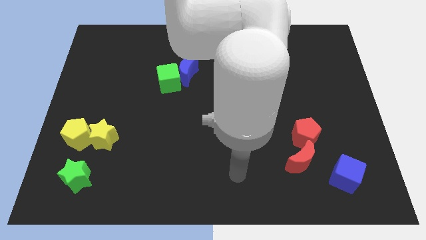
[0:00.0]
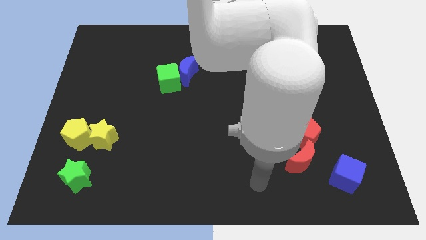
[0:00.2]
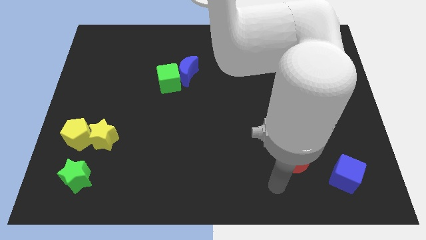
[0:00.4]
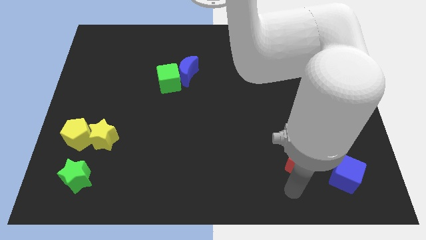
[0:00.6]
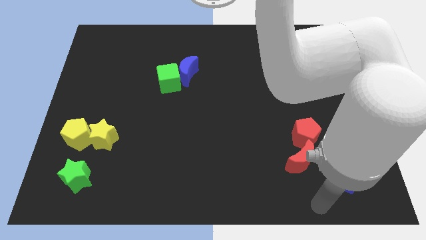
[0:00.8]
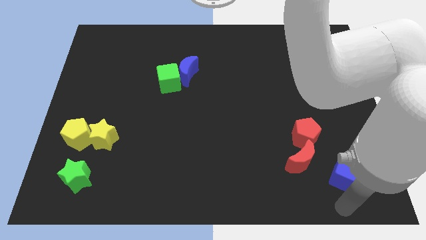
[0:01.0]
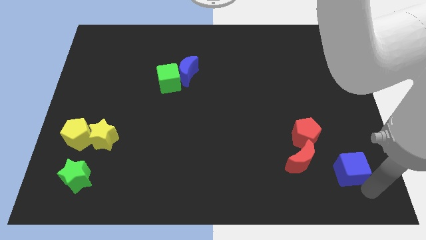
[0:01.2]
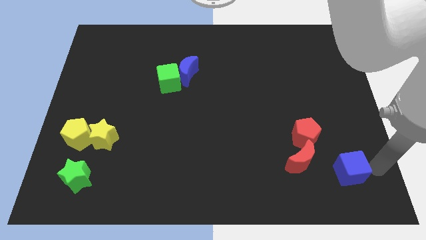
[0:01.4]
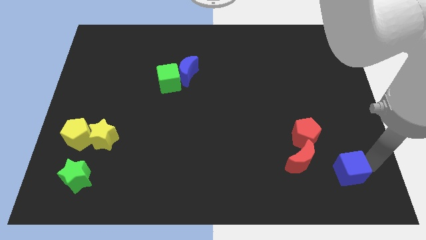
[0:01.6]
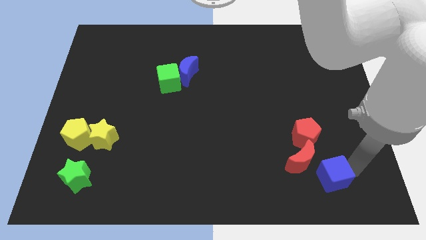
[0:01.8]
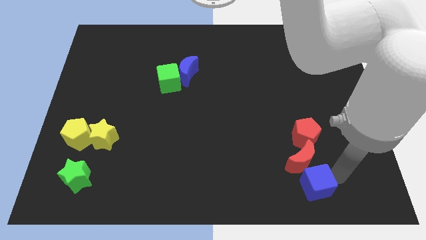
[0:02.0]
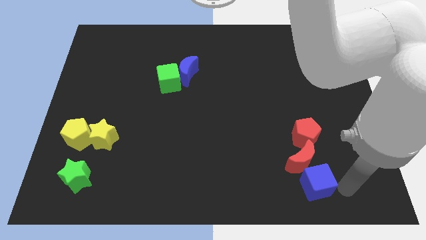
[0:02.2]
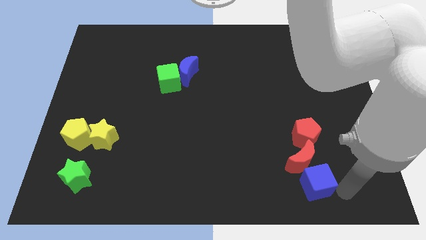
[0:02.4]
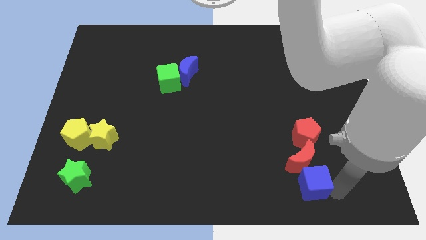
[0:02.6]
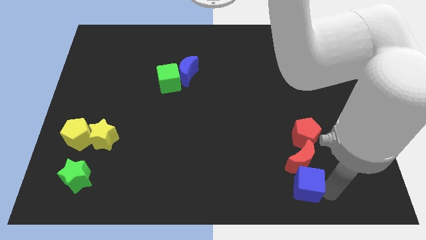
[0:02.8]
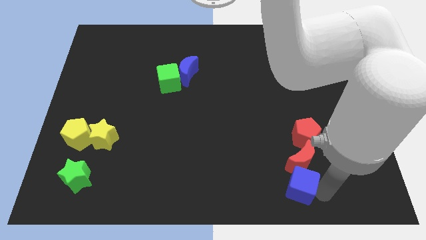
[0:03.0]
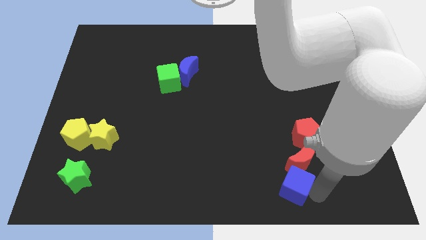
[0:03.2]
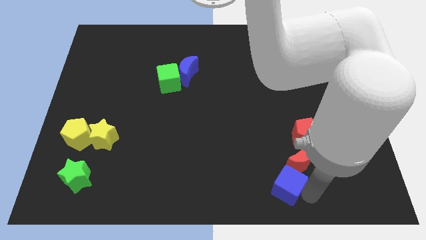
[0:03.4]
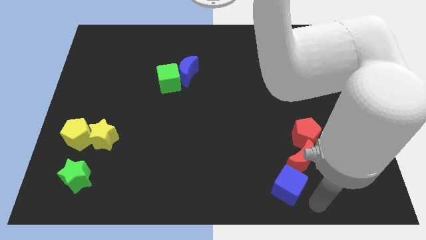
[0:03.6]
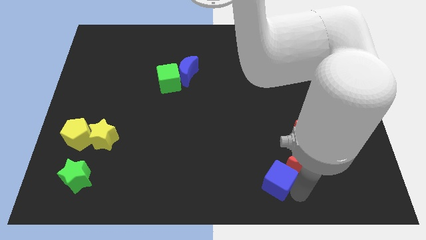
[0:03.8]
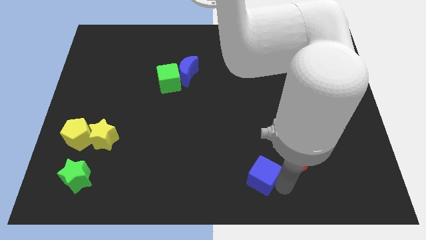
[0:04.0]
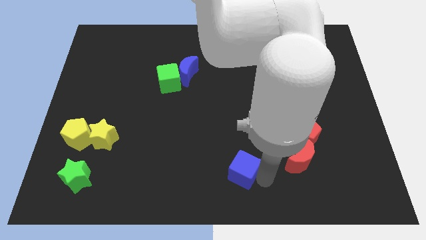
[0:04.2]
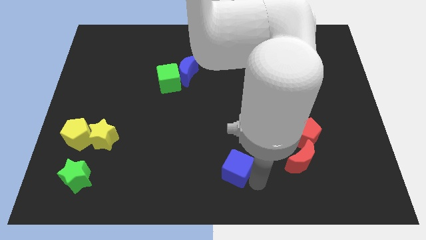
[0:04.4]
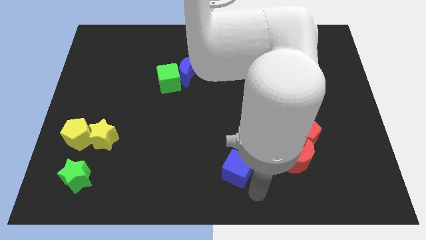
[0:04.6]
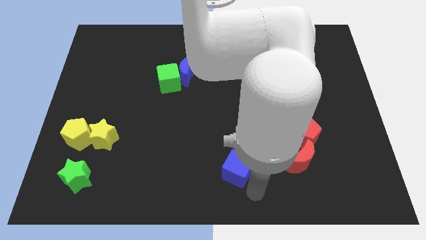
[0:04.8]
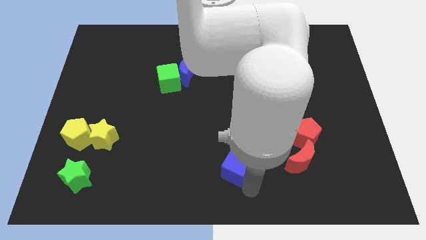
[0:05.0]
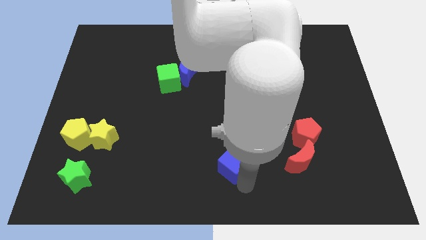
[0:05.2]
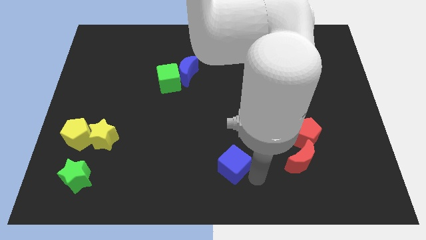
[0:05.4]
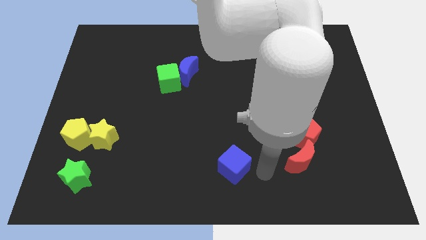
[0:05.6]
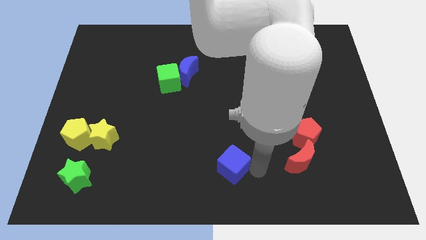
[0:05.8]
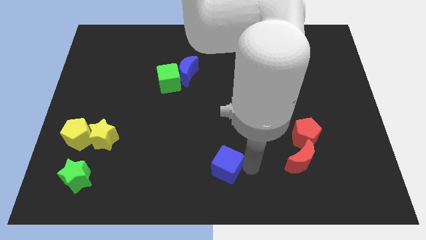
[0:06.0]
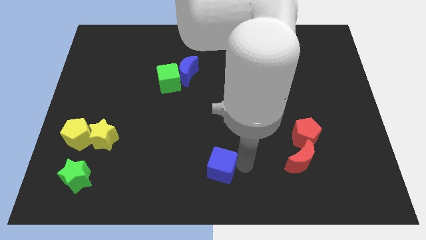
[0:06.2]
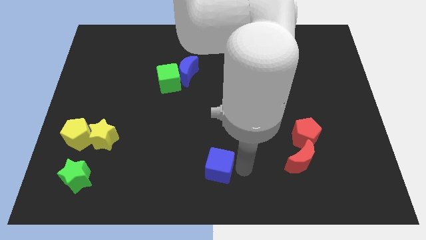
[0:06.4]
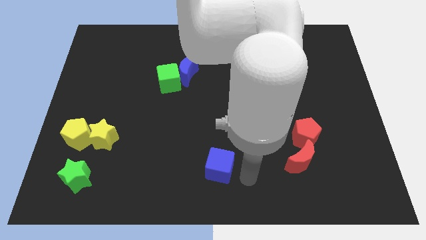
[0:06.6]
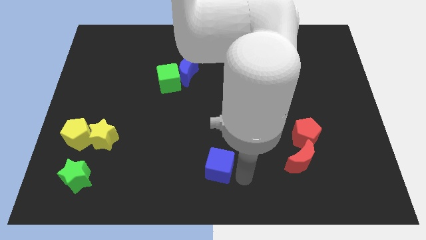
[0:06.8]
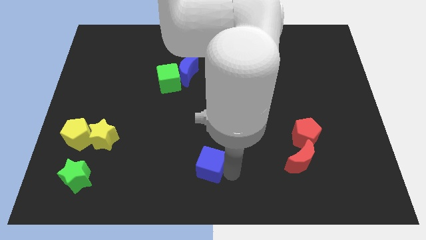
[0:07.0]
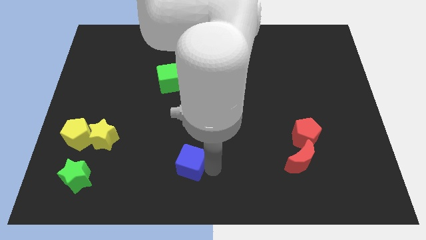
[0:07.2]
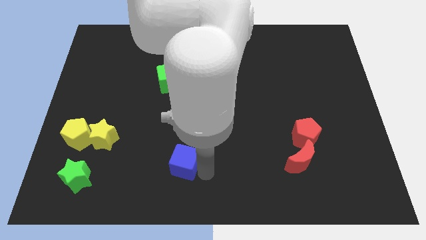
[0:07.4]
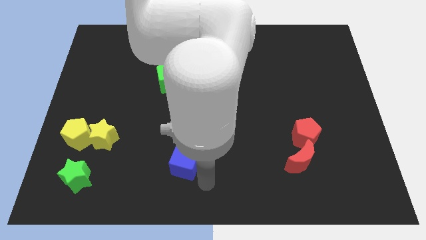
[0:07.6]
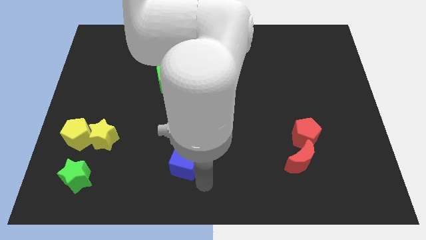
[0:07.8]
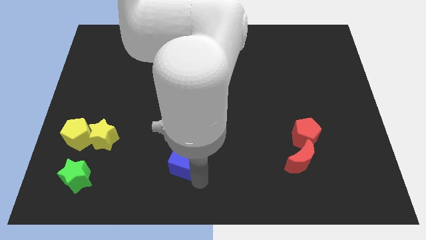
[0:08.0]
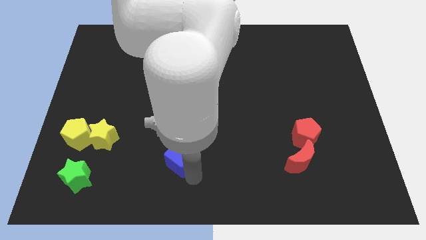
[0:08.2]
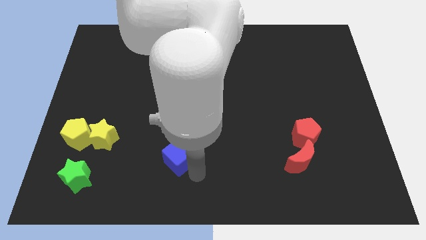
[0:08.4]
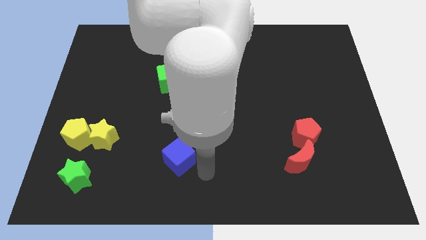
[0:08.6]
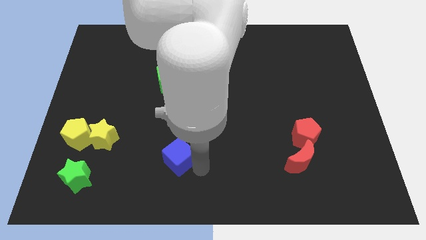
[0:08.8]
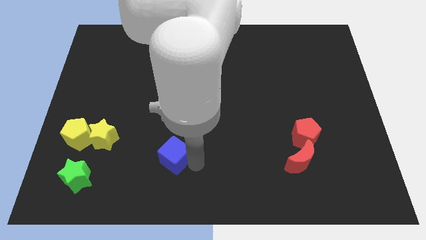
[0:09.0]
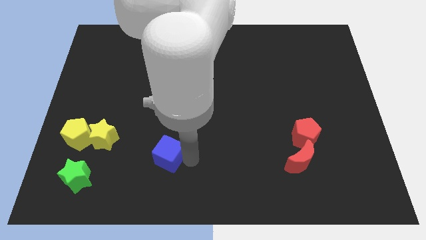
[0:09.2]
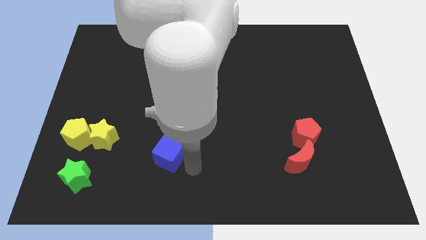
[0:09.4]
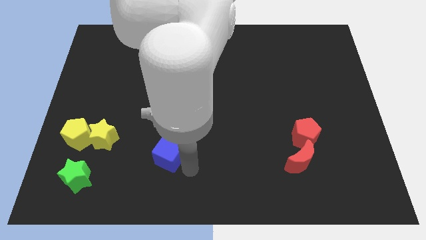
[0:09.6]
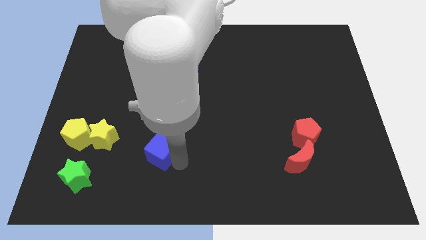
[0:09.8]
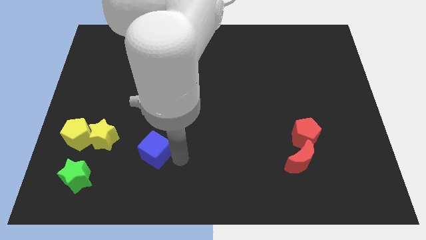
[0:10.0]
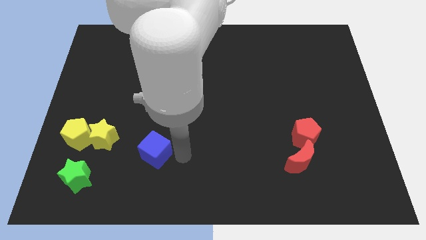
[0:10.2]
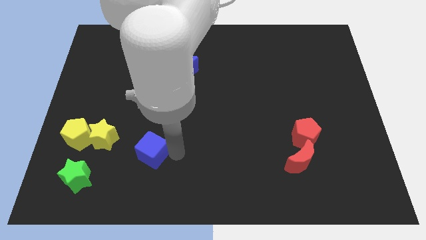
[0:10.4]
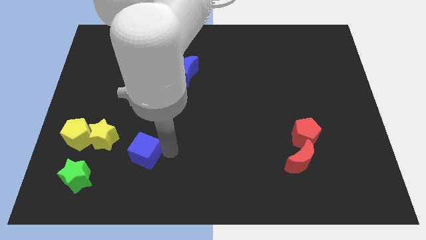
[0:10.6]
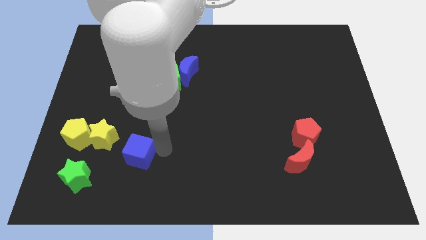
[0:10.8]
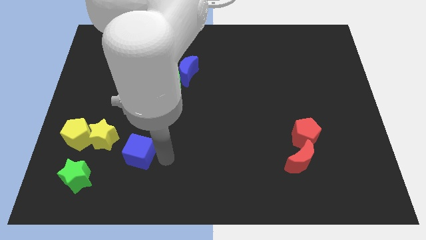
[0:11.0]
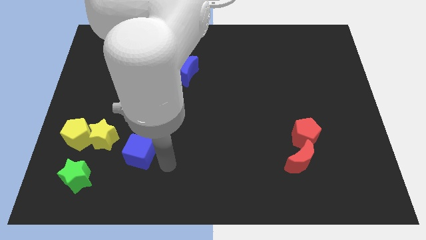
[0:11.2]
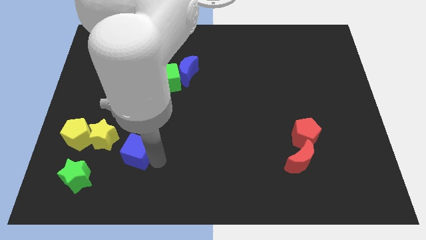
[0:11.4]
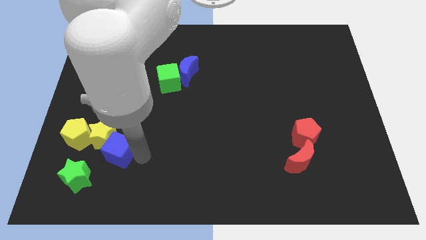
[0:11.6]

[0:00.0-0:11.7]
slide the blue cube next to the yellow star

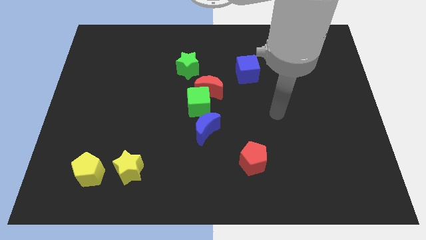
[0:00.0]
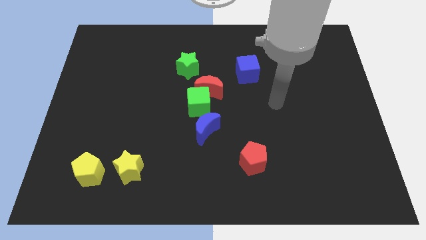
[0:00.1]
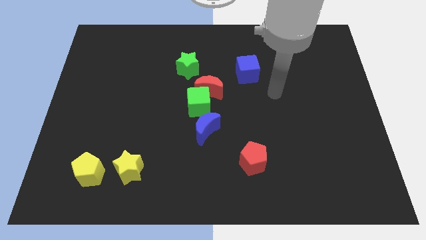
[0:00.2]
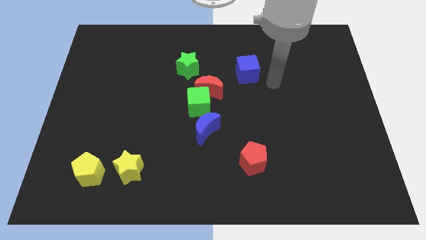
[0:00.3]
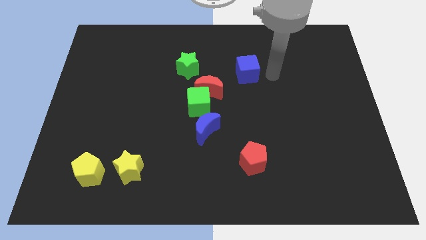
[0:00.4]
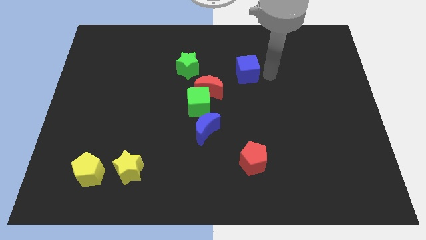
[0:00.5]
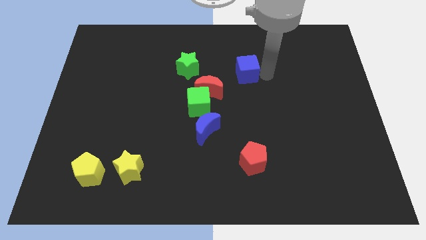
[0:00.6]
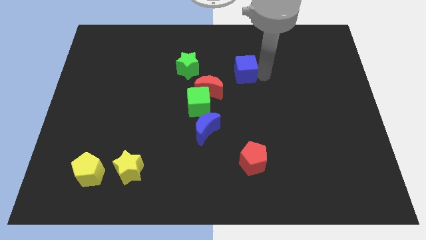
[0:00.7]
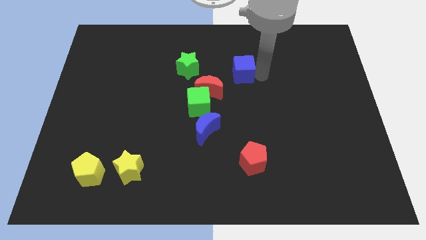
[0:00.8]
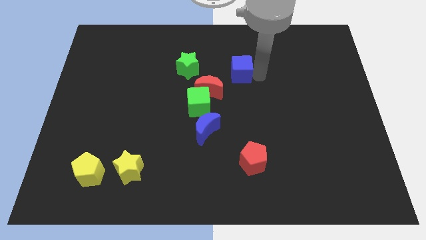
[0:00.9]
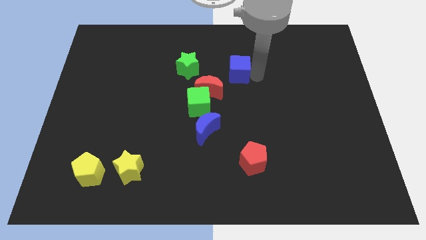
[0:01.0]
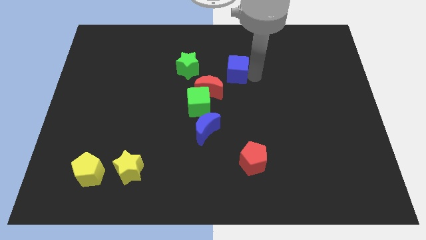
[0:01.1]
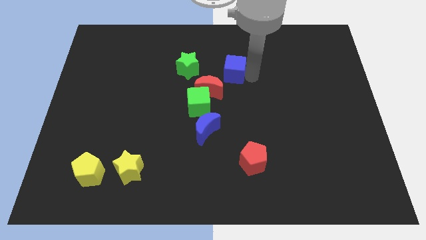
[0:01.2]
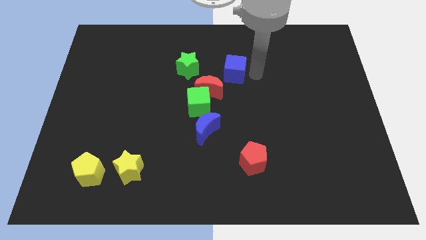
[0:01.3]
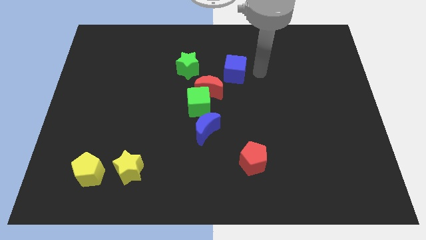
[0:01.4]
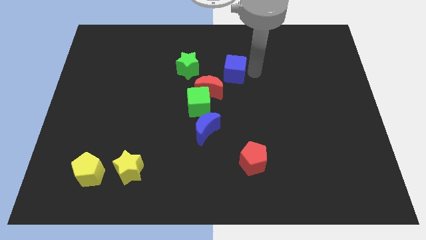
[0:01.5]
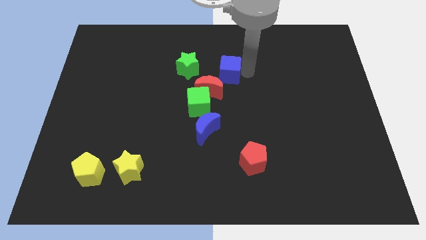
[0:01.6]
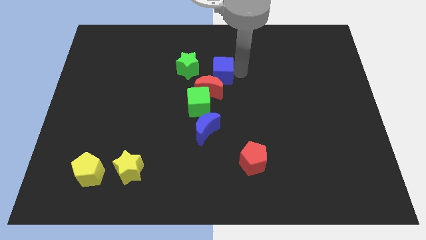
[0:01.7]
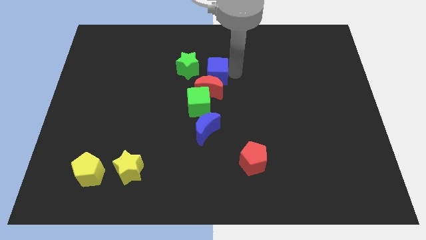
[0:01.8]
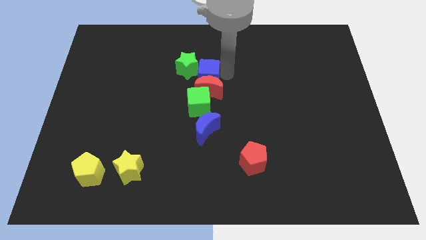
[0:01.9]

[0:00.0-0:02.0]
move the blue cube next to the green star
